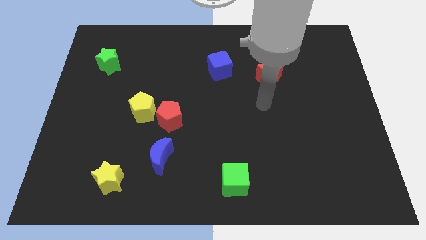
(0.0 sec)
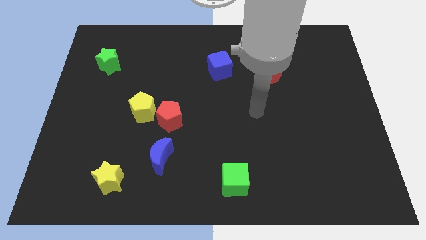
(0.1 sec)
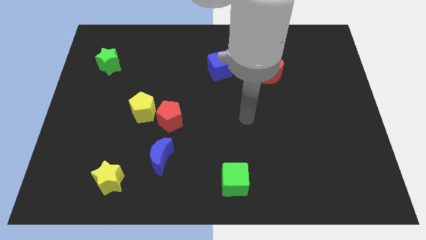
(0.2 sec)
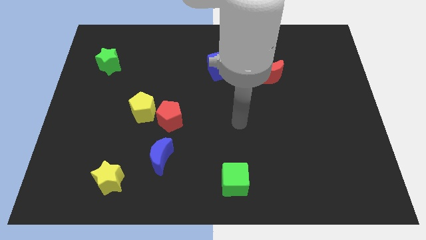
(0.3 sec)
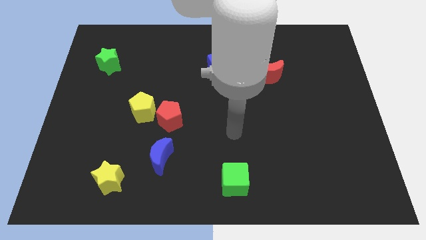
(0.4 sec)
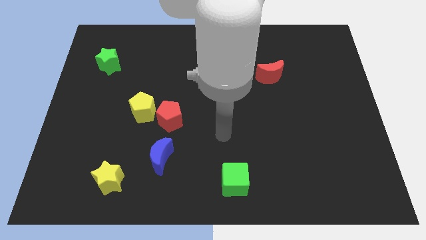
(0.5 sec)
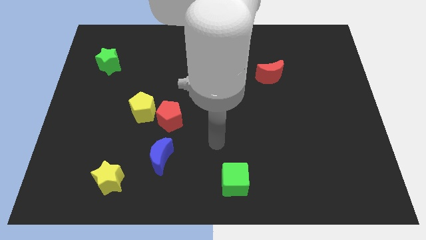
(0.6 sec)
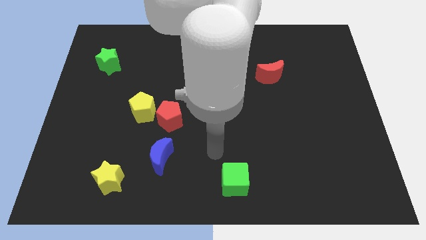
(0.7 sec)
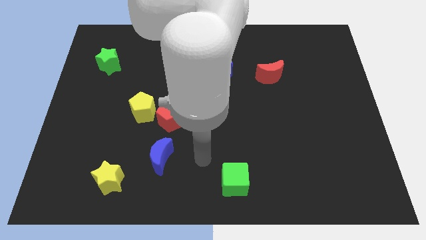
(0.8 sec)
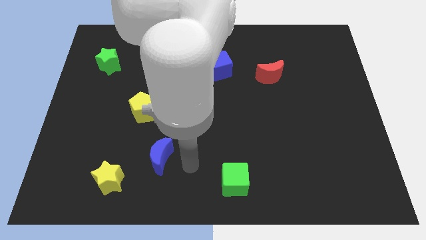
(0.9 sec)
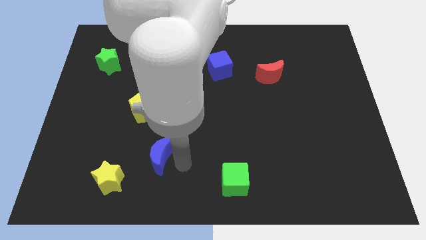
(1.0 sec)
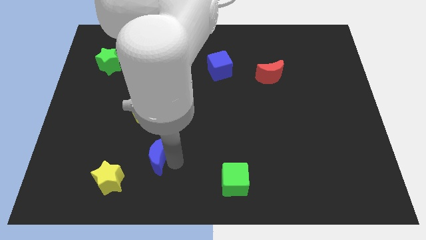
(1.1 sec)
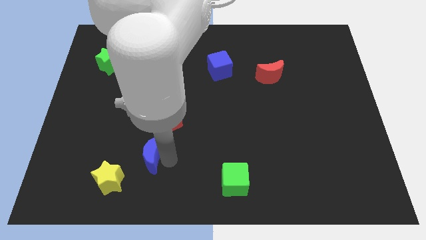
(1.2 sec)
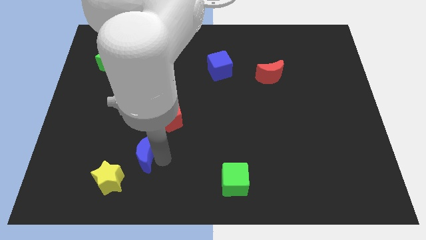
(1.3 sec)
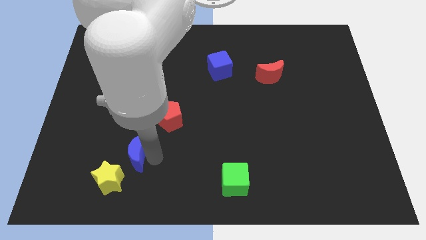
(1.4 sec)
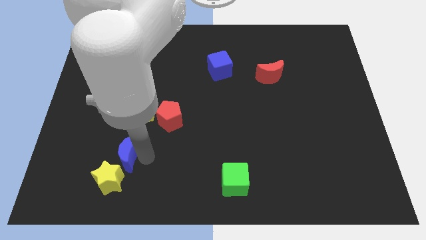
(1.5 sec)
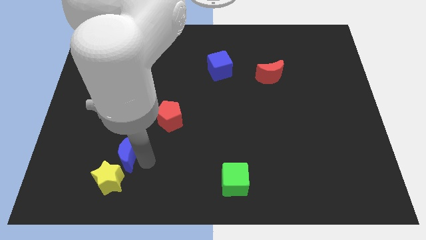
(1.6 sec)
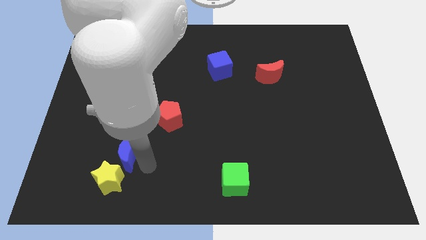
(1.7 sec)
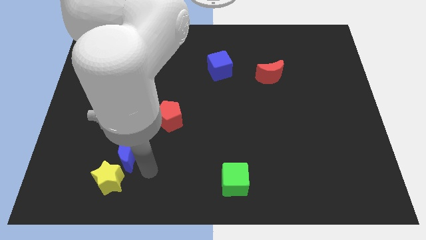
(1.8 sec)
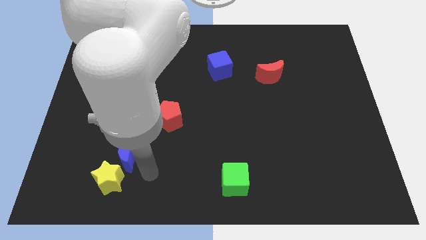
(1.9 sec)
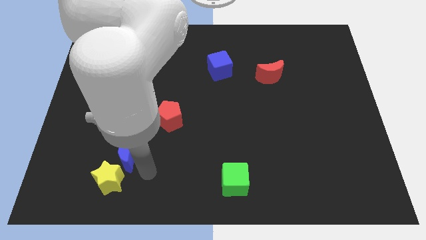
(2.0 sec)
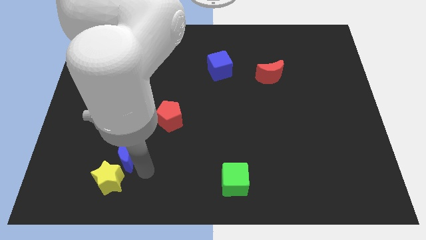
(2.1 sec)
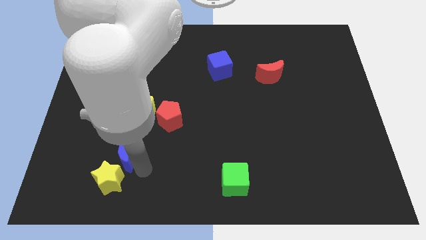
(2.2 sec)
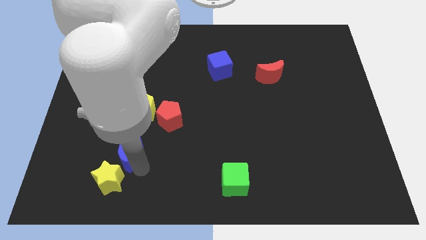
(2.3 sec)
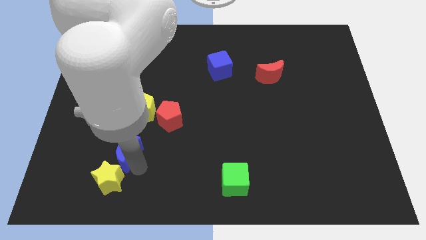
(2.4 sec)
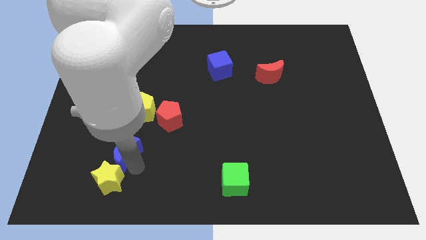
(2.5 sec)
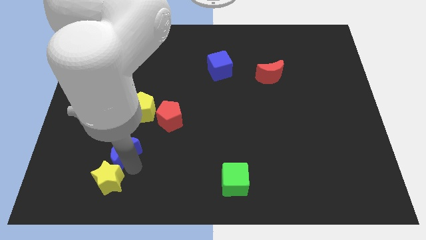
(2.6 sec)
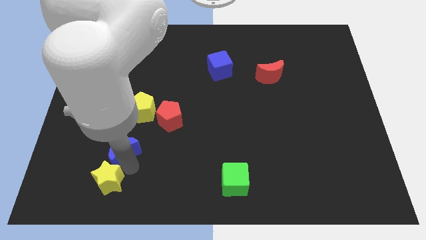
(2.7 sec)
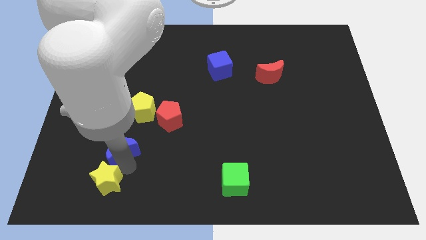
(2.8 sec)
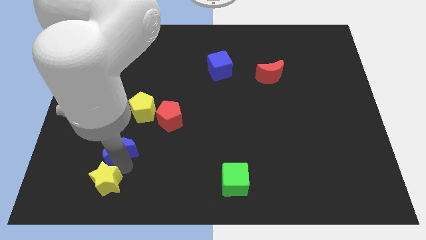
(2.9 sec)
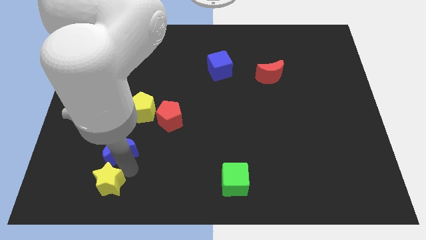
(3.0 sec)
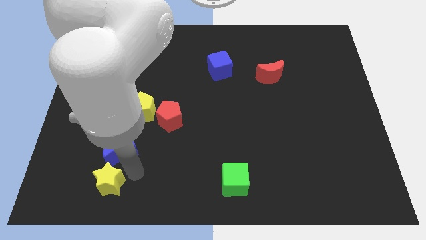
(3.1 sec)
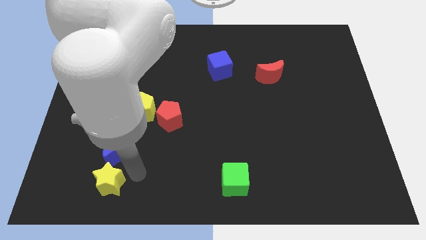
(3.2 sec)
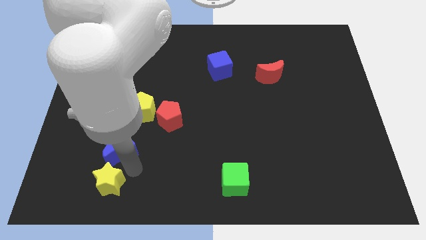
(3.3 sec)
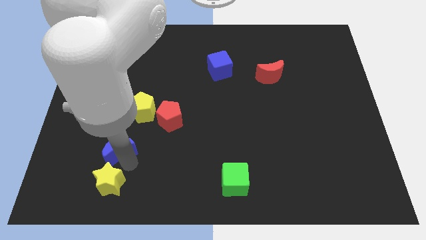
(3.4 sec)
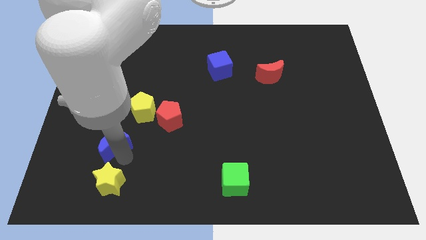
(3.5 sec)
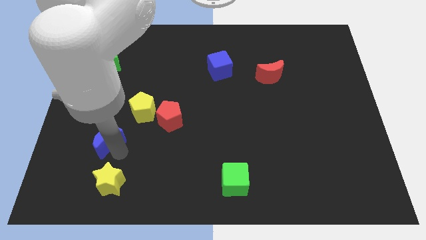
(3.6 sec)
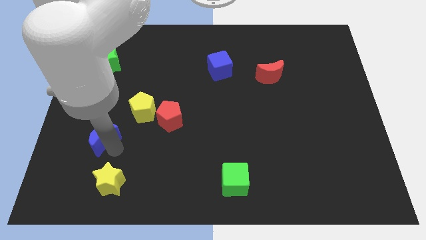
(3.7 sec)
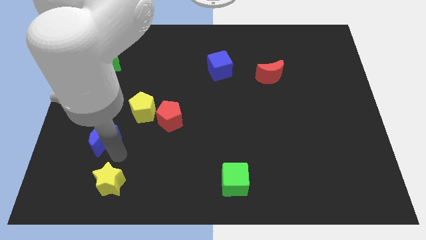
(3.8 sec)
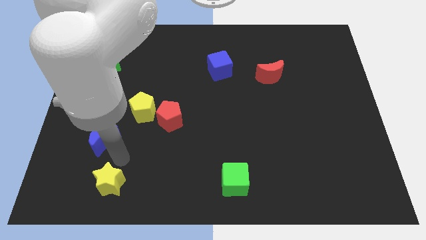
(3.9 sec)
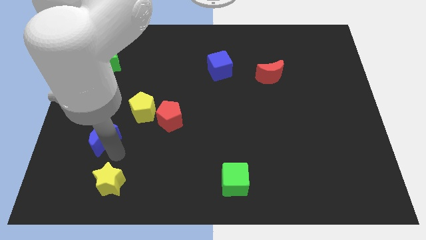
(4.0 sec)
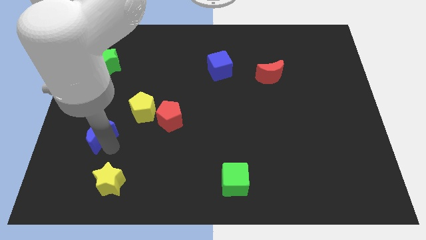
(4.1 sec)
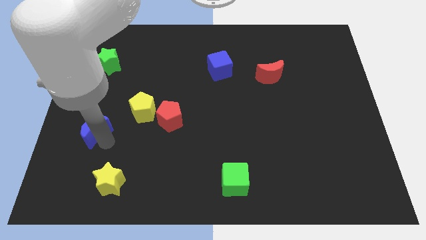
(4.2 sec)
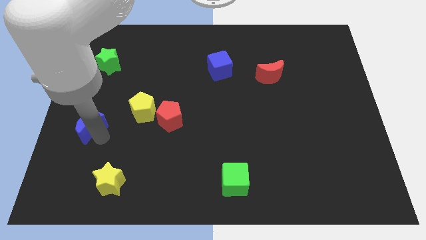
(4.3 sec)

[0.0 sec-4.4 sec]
put the blue moon to the left side

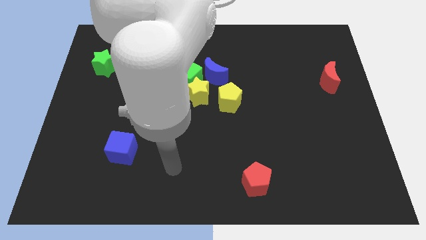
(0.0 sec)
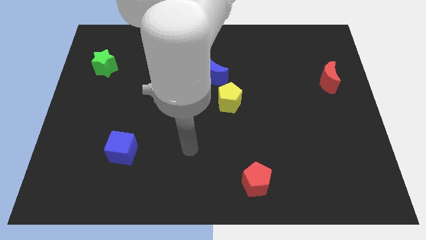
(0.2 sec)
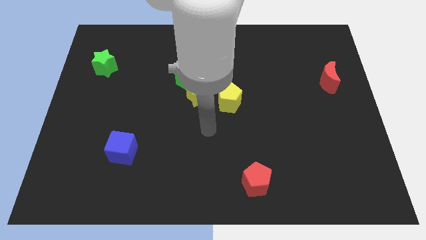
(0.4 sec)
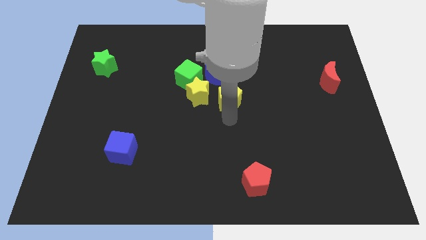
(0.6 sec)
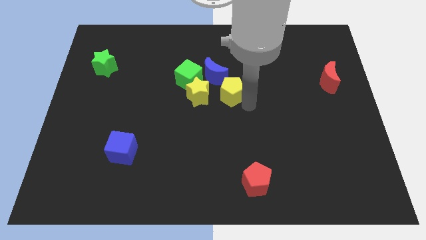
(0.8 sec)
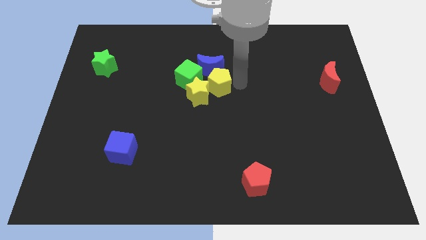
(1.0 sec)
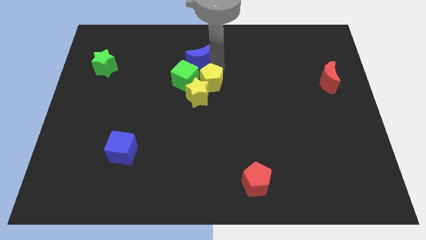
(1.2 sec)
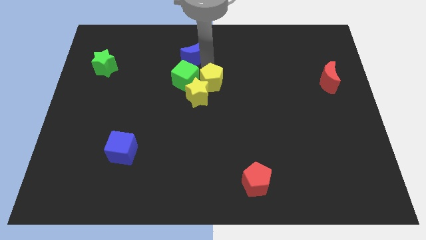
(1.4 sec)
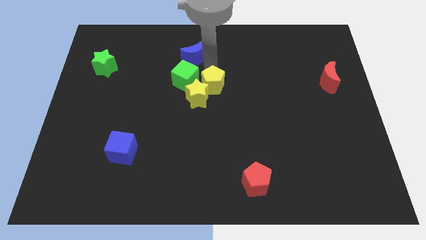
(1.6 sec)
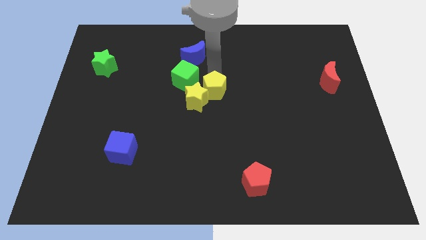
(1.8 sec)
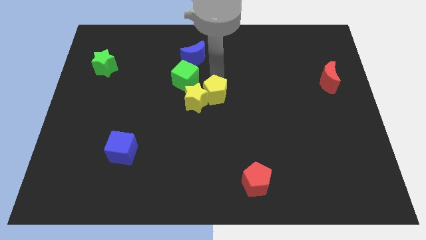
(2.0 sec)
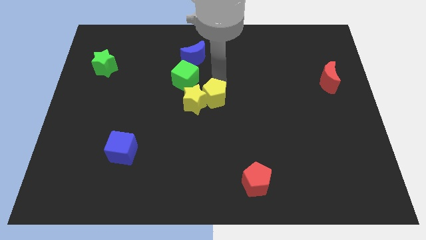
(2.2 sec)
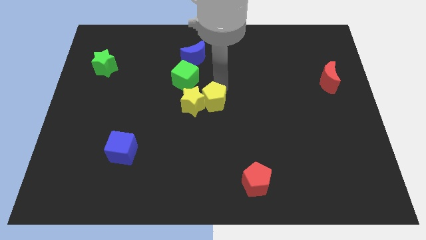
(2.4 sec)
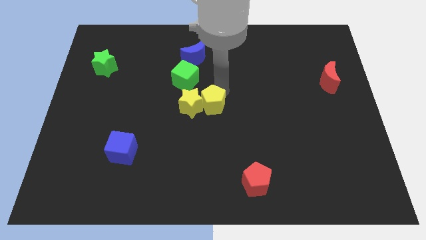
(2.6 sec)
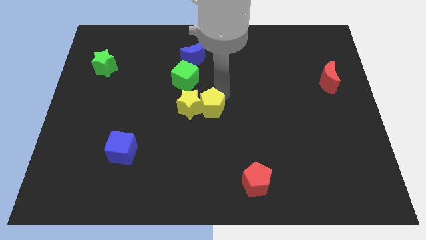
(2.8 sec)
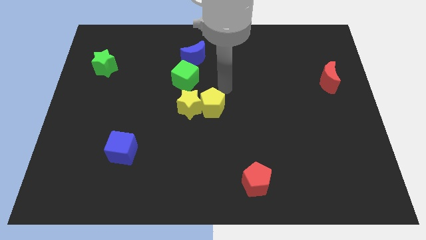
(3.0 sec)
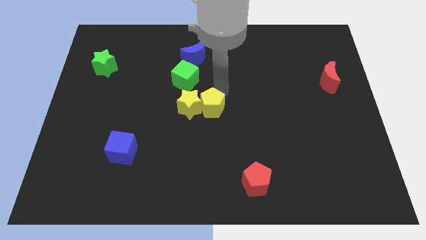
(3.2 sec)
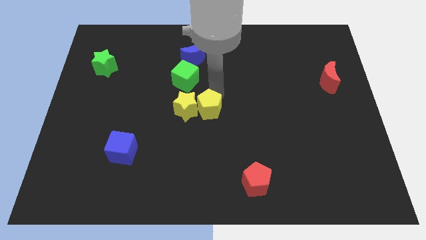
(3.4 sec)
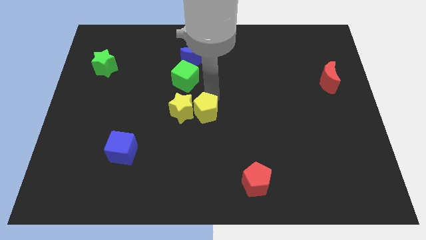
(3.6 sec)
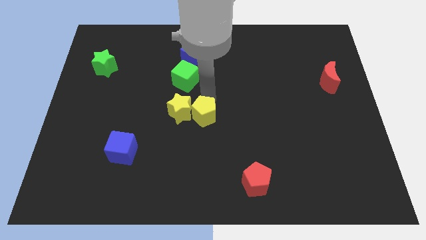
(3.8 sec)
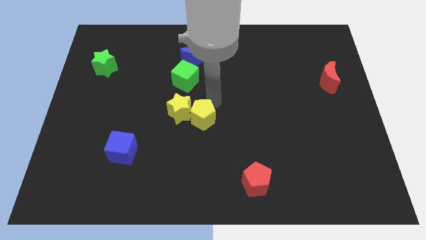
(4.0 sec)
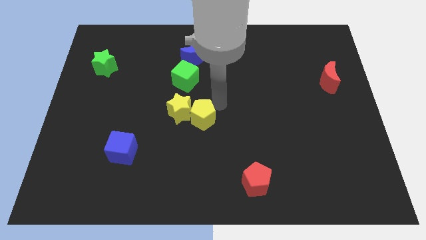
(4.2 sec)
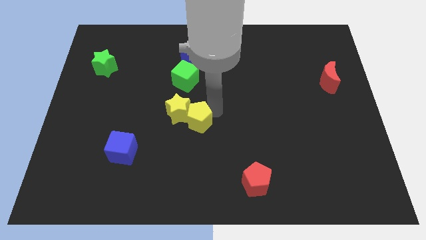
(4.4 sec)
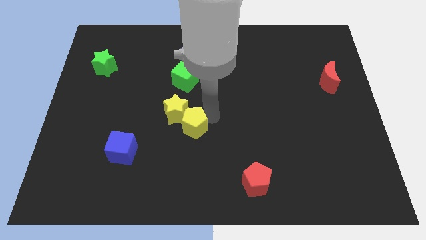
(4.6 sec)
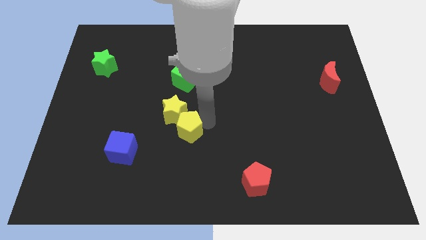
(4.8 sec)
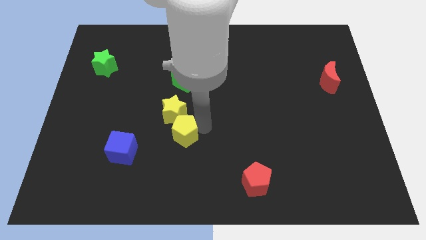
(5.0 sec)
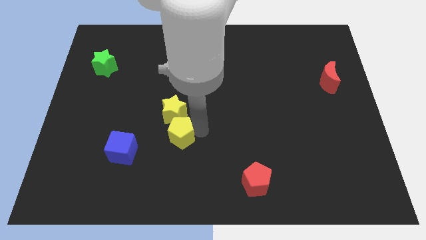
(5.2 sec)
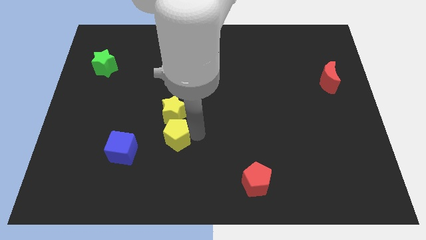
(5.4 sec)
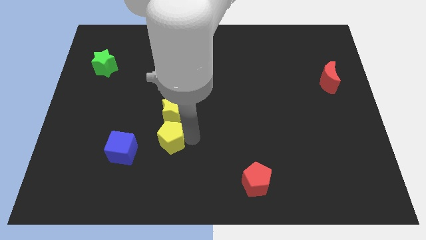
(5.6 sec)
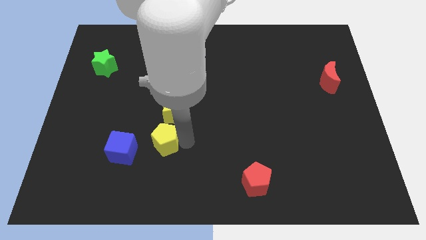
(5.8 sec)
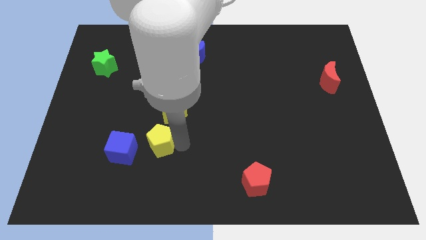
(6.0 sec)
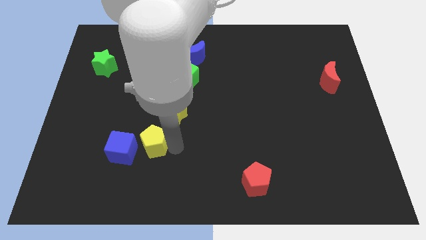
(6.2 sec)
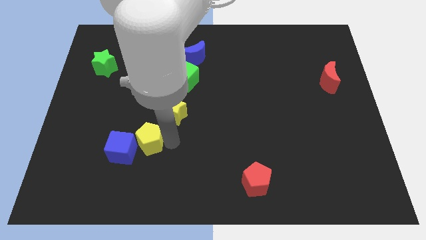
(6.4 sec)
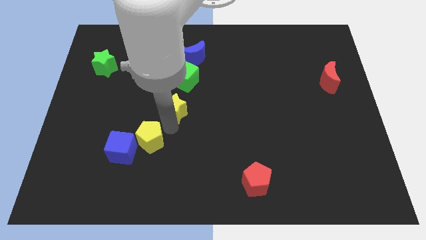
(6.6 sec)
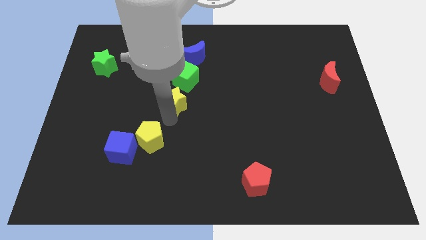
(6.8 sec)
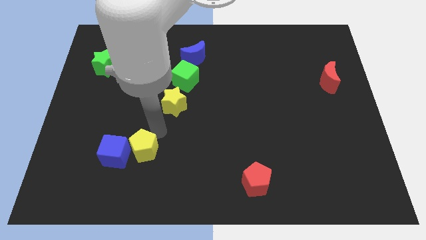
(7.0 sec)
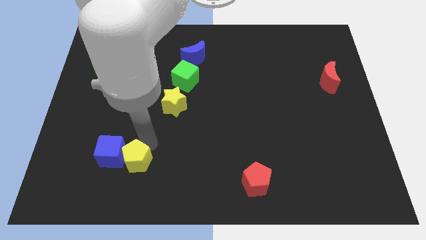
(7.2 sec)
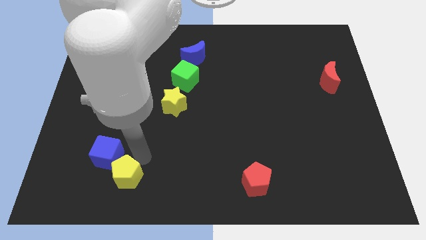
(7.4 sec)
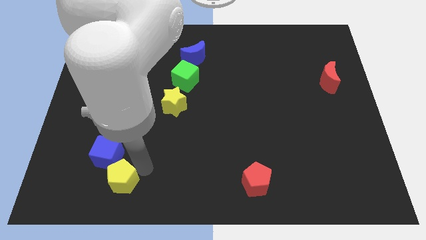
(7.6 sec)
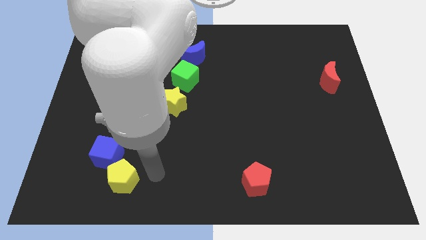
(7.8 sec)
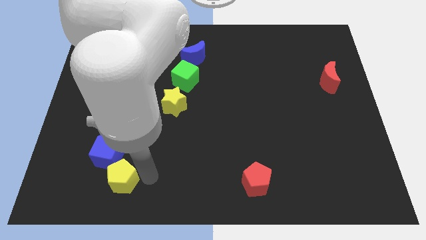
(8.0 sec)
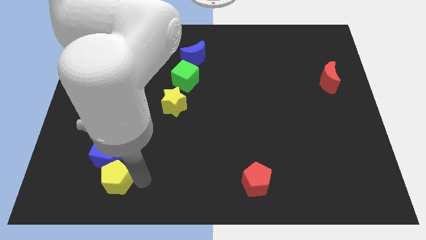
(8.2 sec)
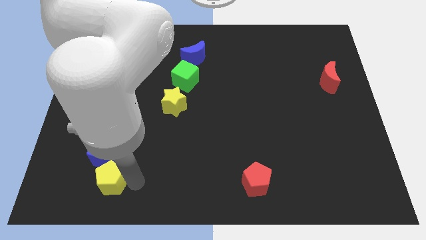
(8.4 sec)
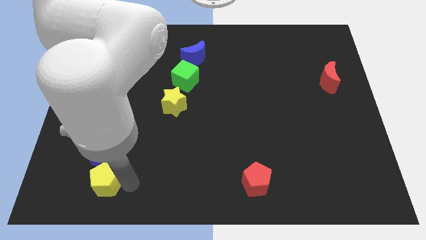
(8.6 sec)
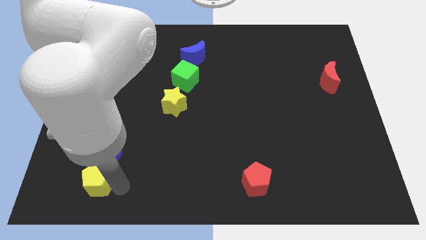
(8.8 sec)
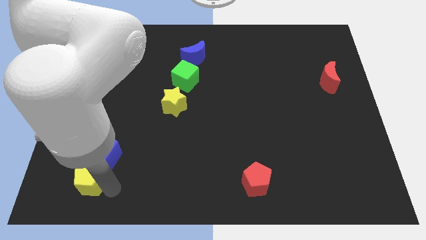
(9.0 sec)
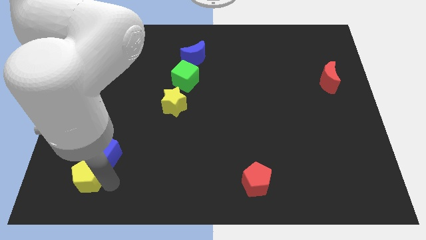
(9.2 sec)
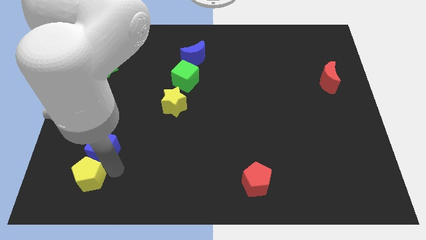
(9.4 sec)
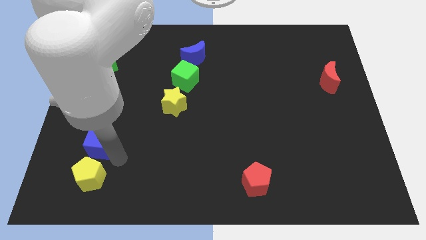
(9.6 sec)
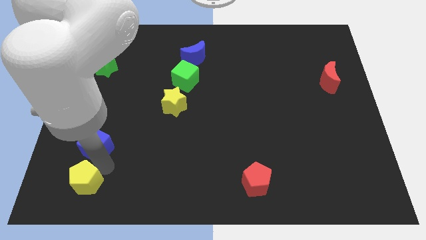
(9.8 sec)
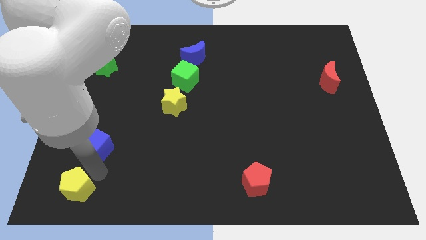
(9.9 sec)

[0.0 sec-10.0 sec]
push the yellow pentagon to the bottom left corner
